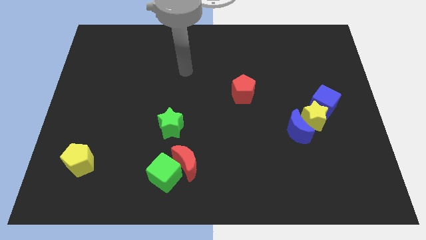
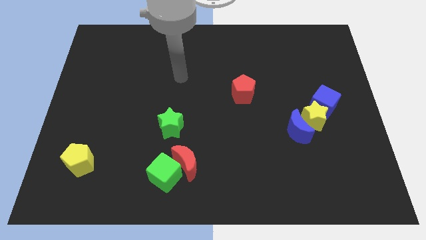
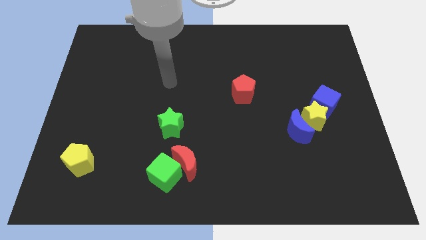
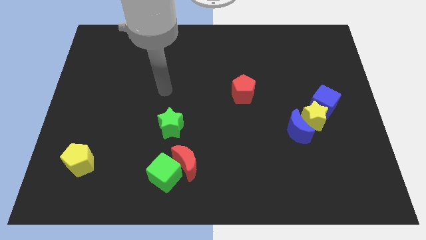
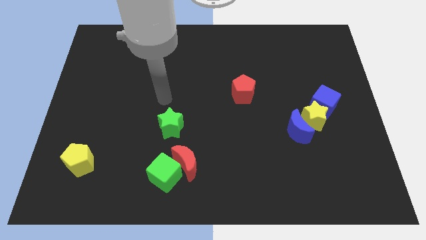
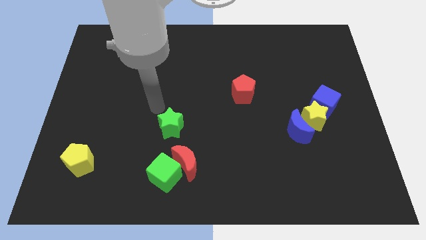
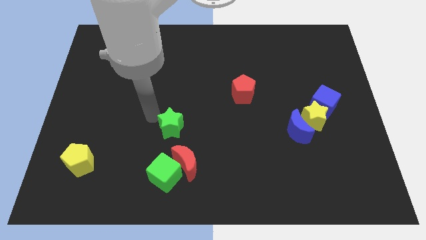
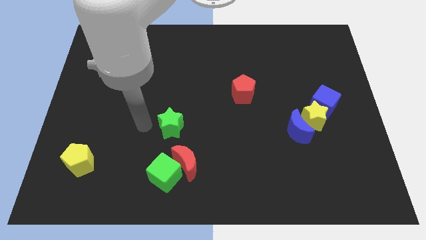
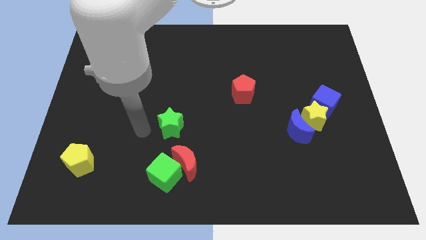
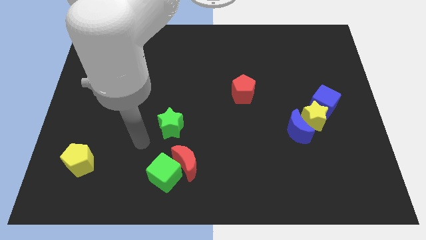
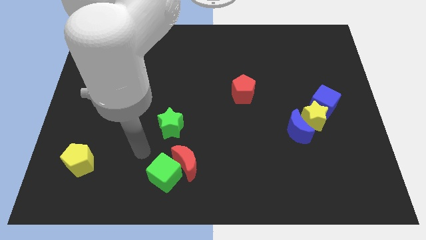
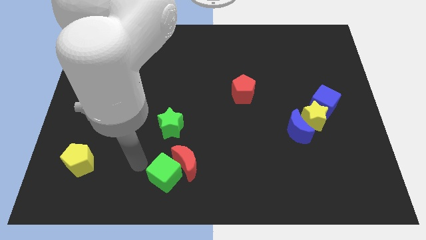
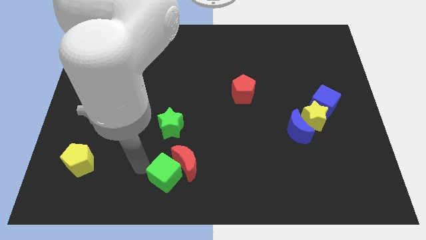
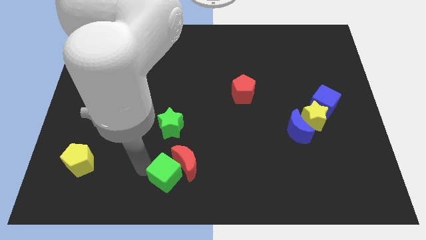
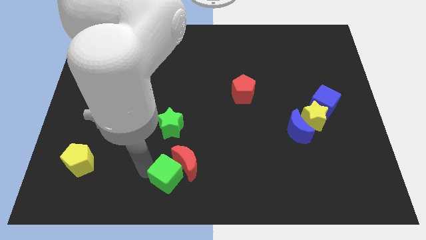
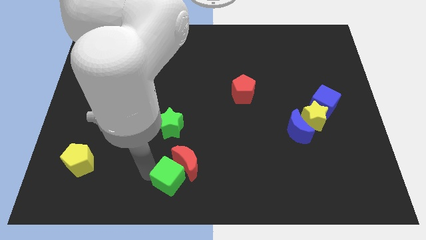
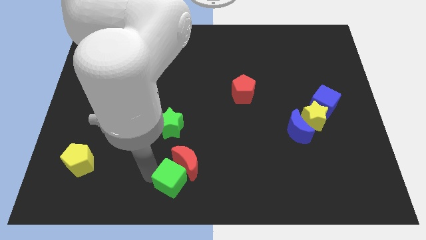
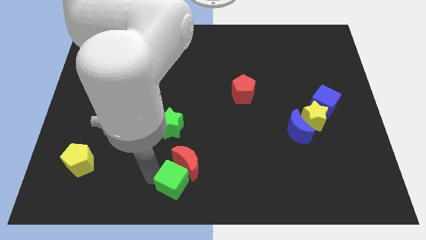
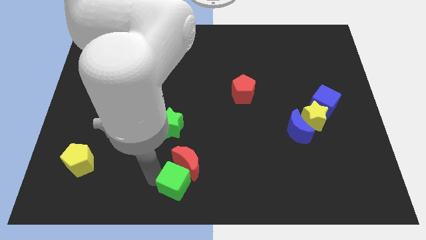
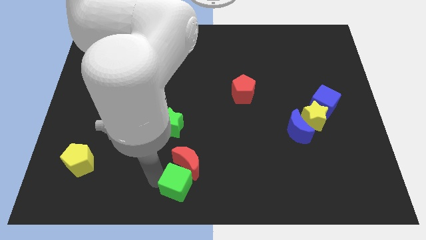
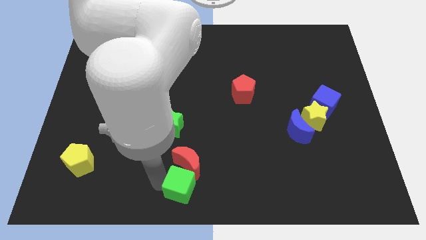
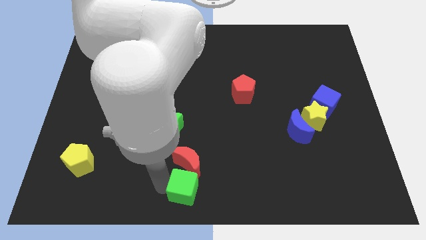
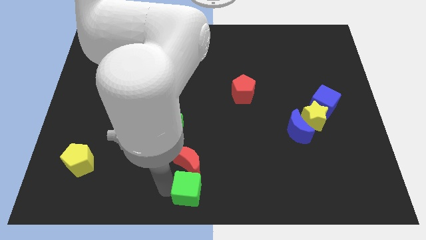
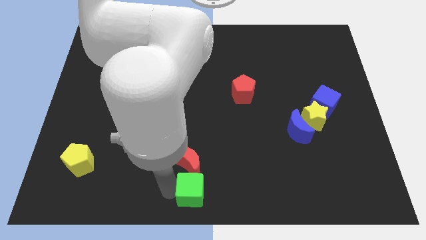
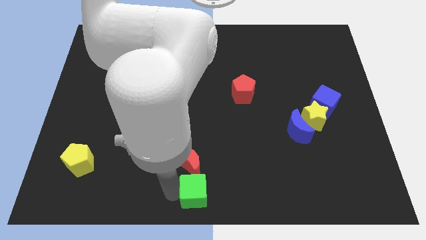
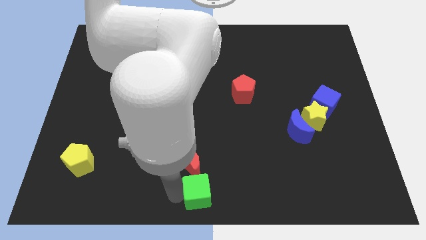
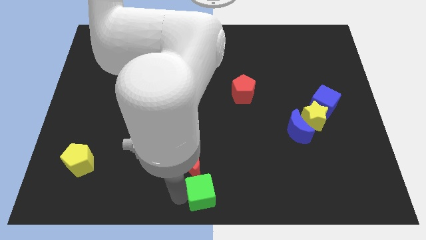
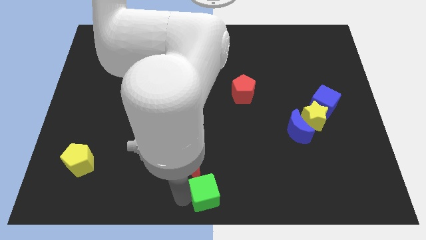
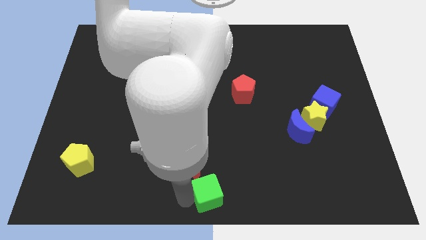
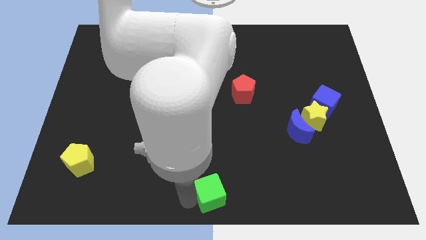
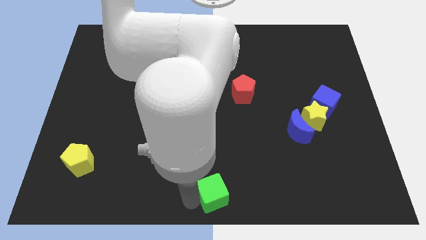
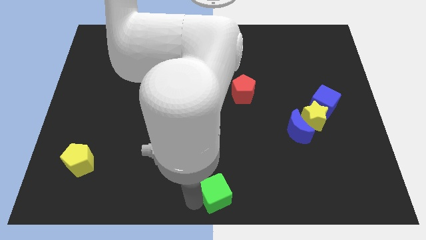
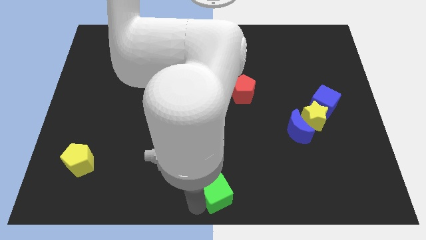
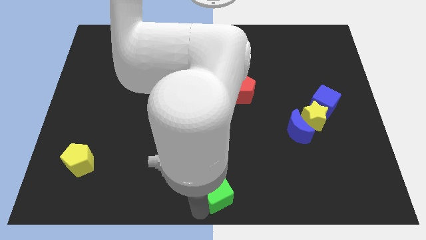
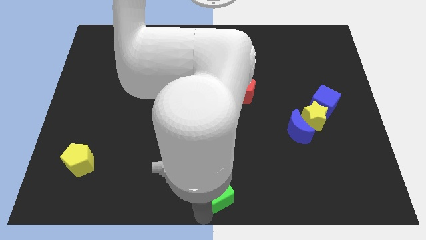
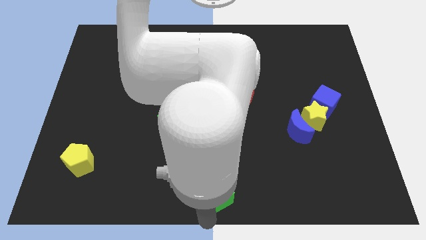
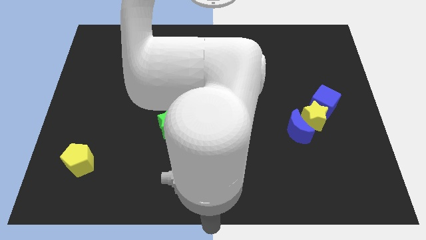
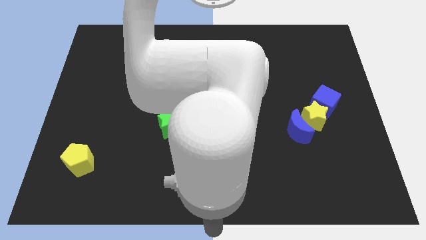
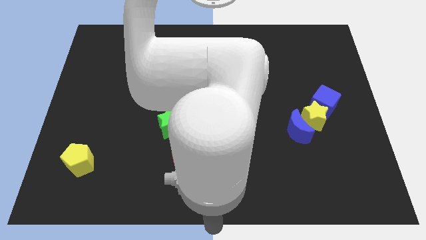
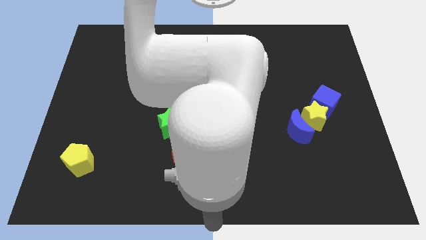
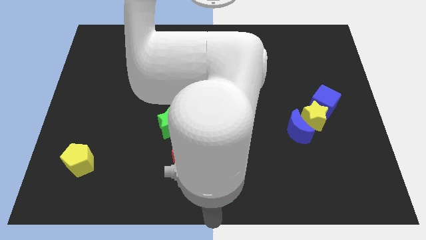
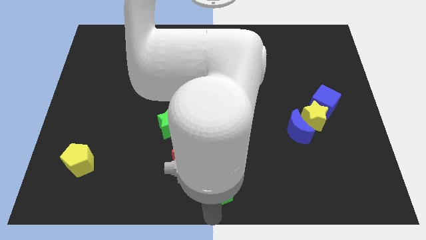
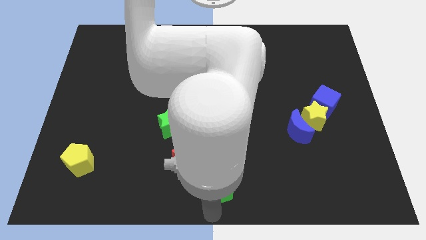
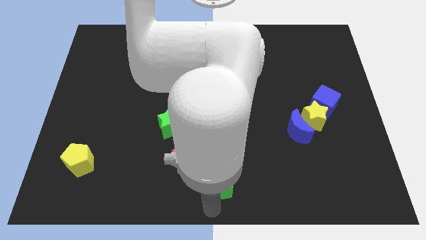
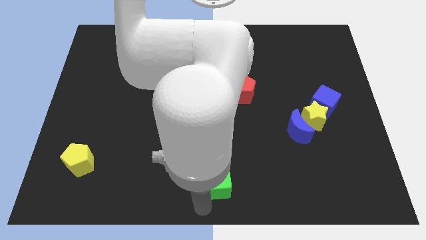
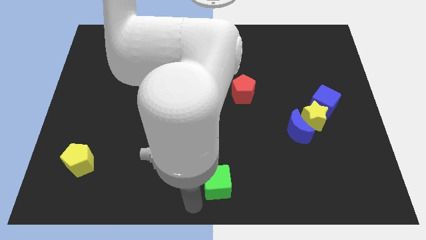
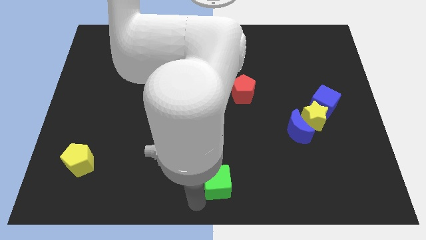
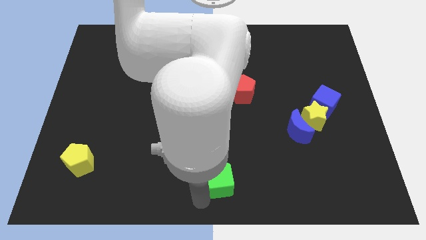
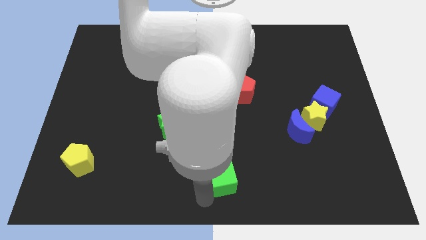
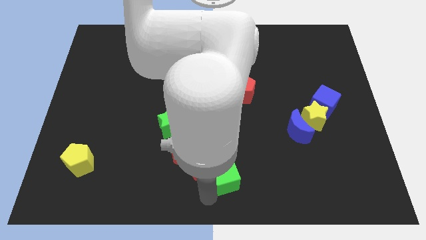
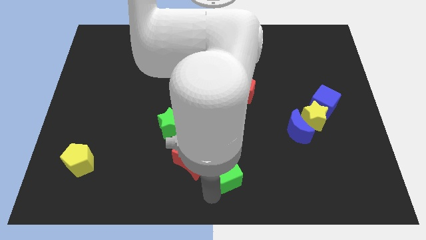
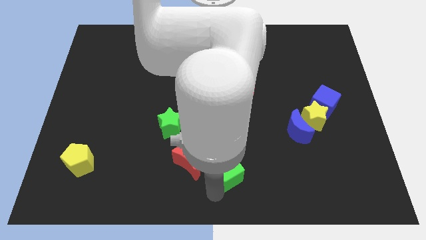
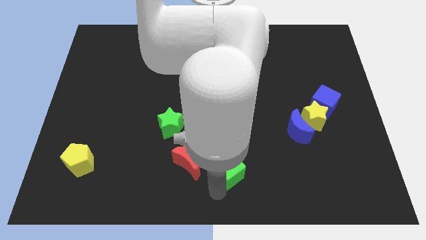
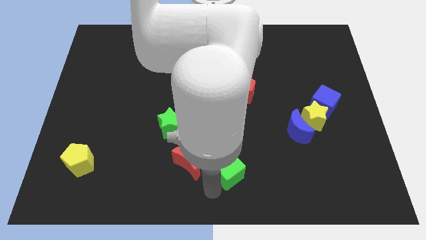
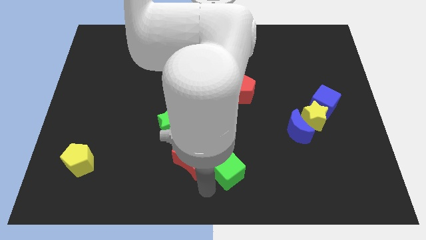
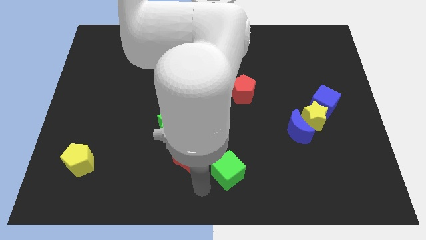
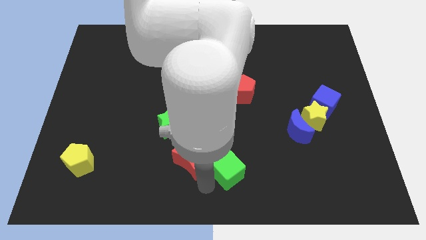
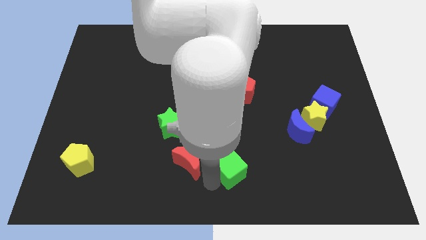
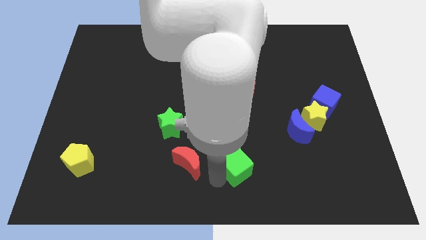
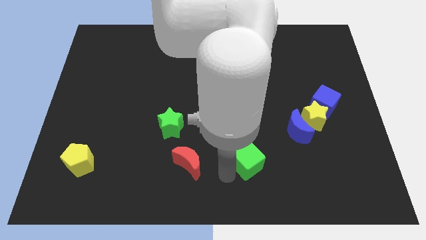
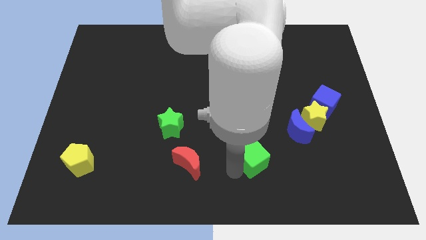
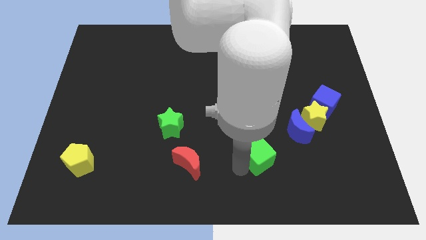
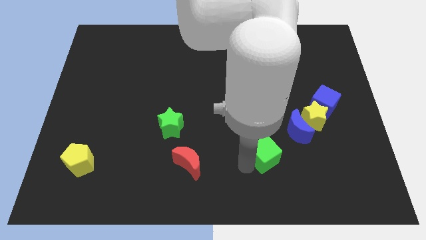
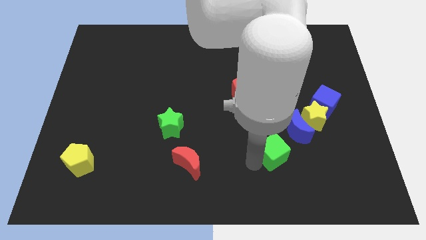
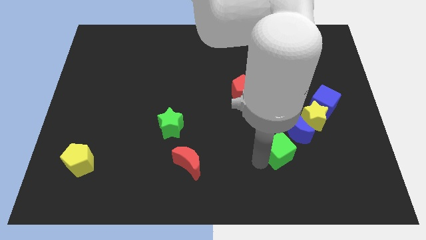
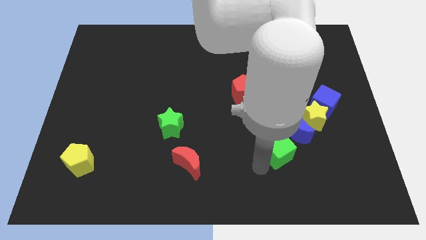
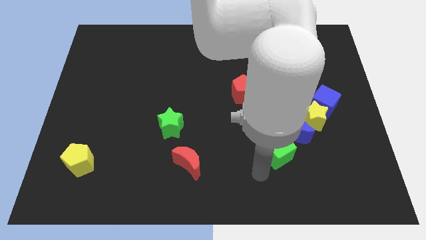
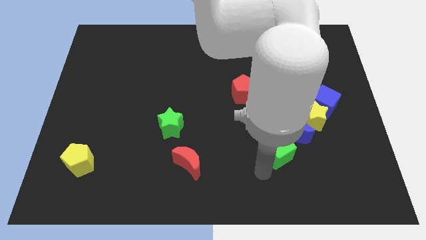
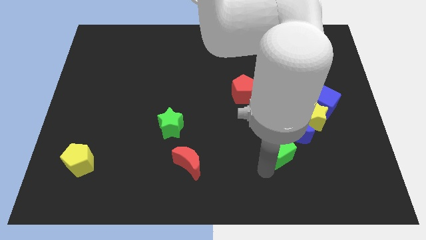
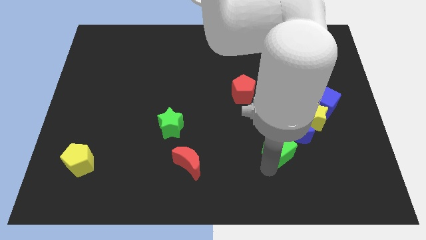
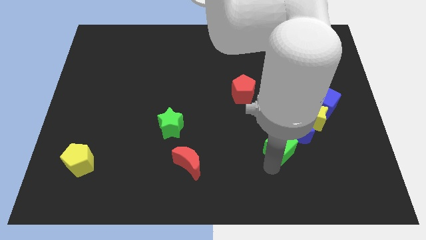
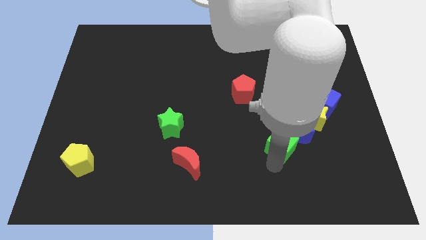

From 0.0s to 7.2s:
push the green cube close to the blue moon

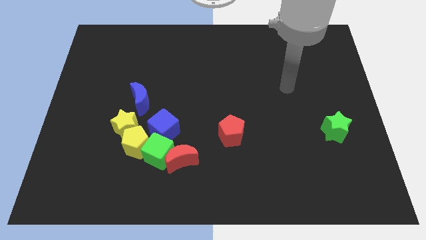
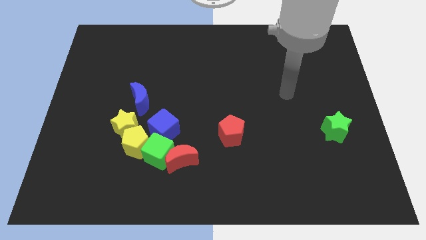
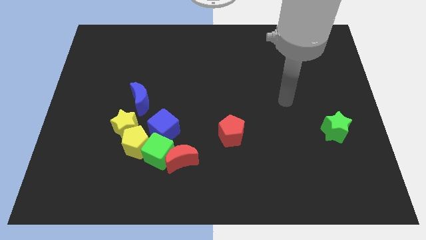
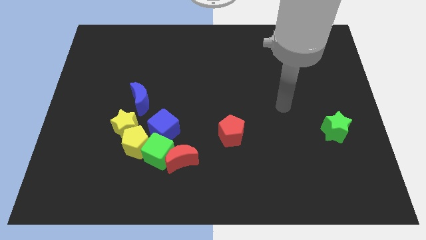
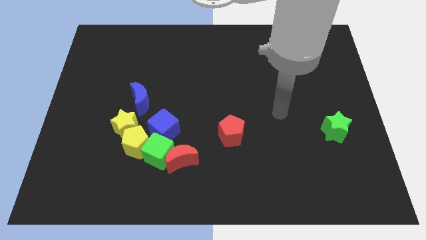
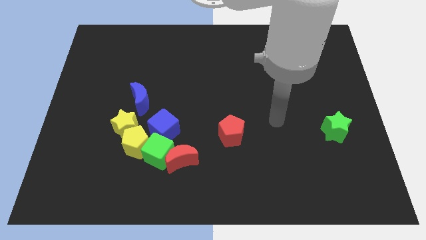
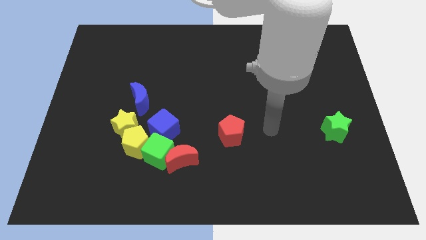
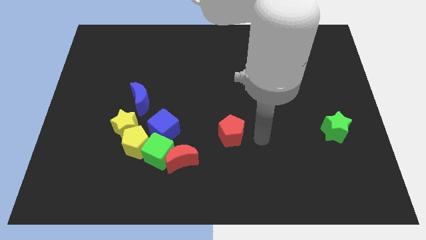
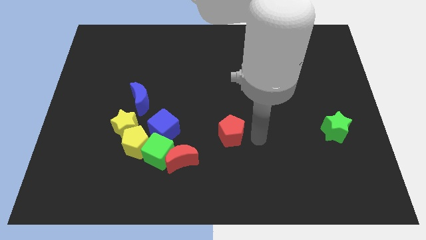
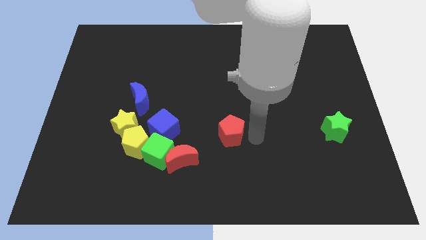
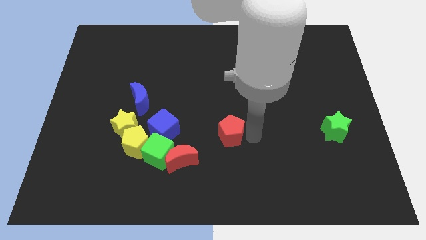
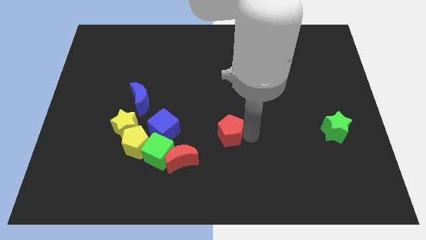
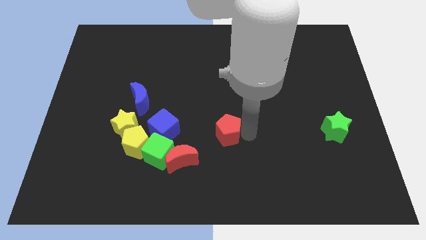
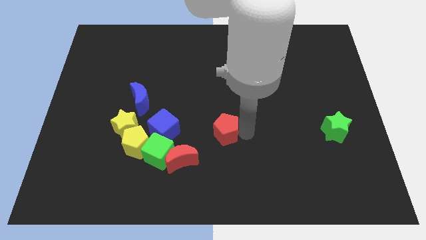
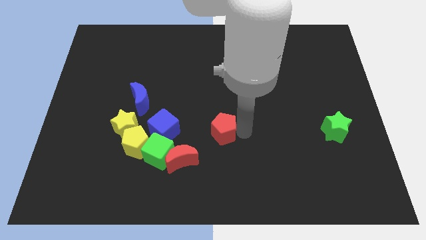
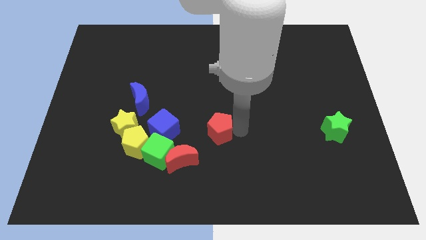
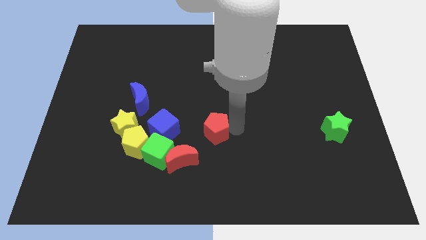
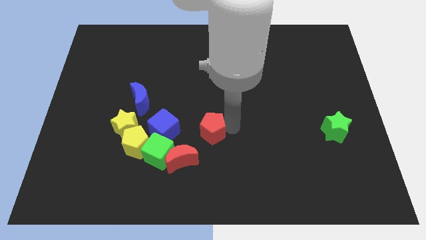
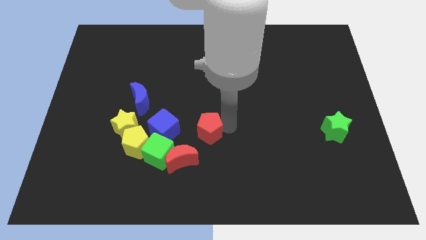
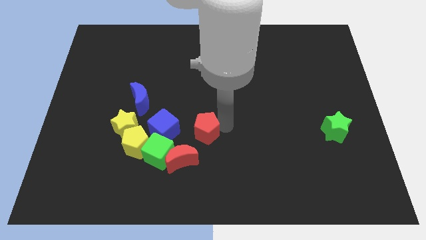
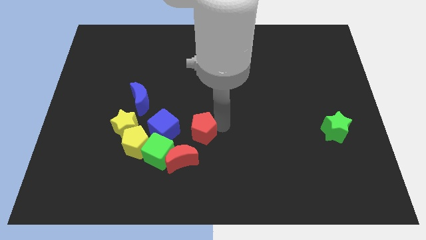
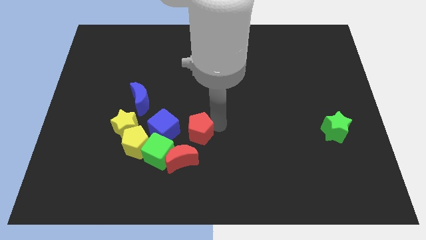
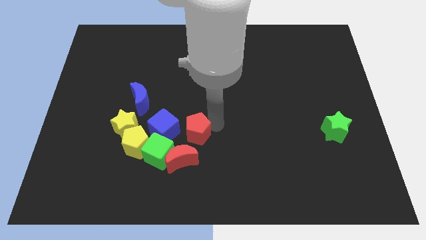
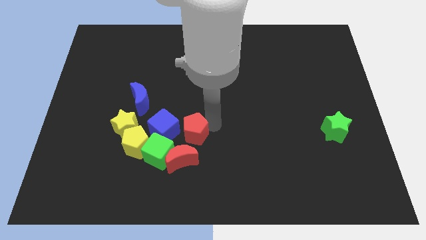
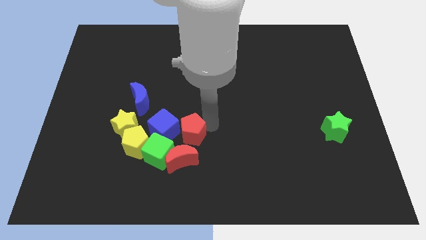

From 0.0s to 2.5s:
move the red pentagon close to the blue cube
